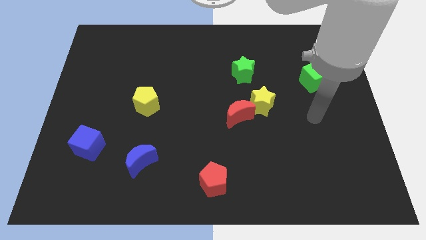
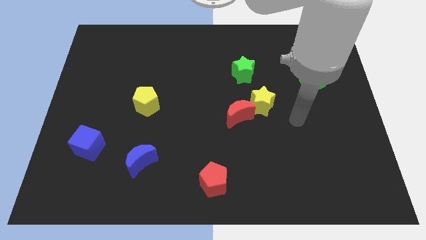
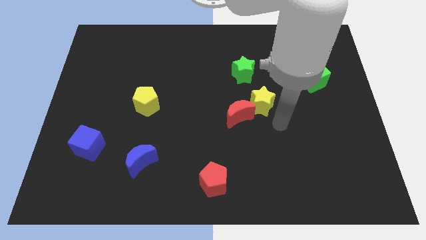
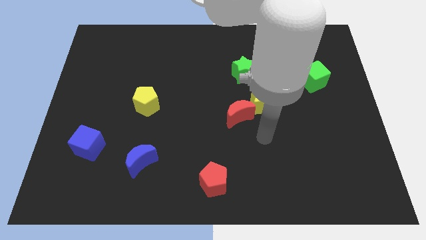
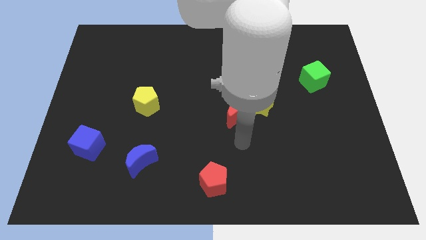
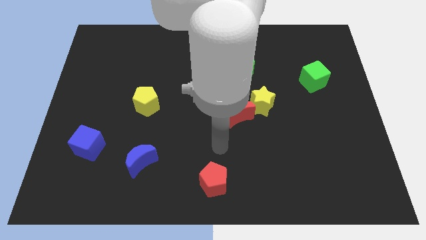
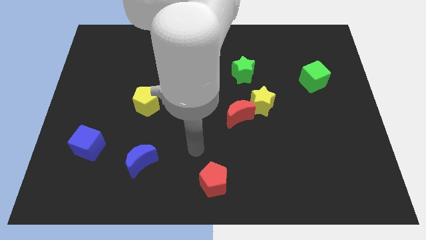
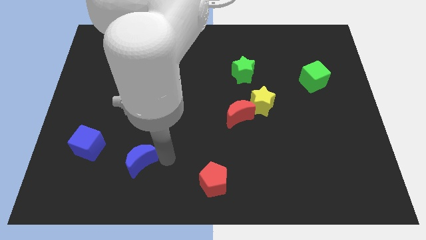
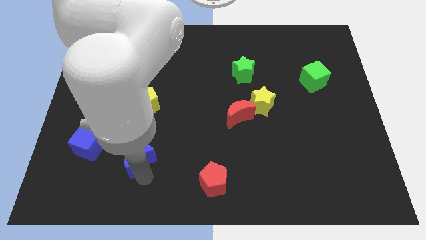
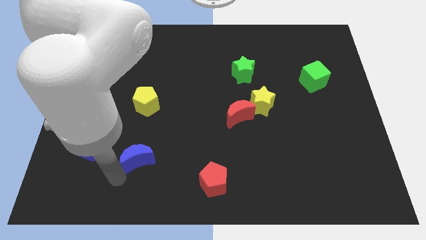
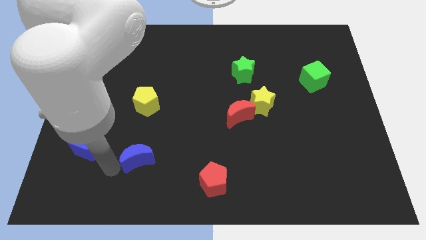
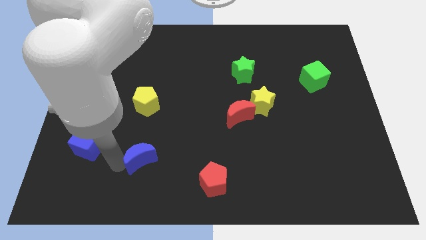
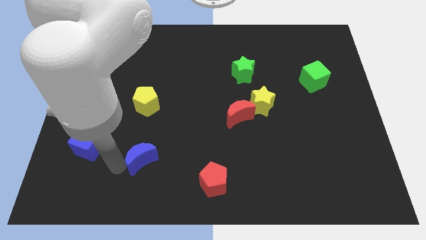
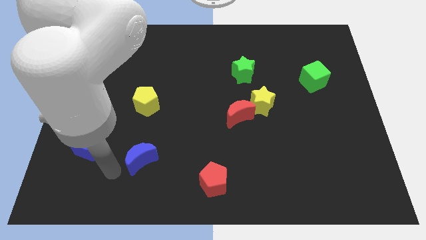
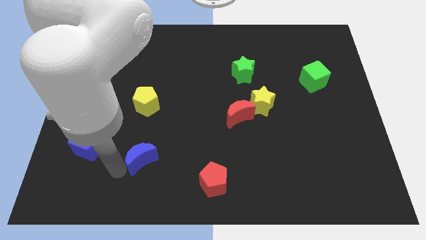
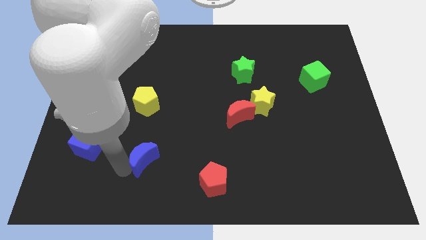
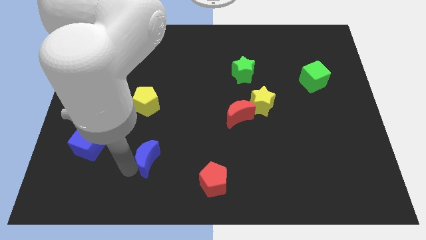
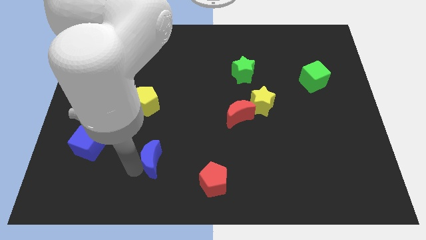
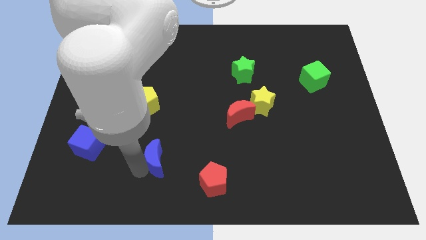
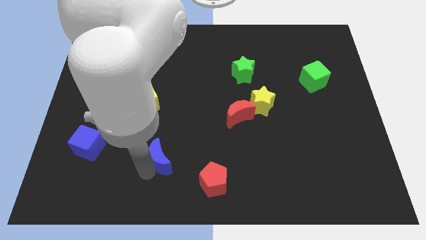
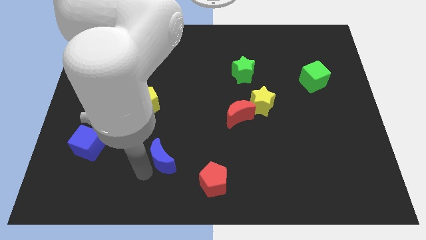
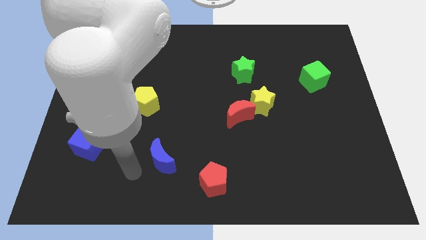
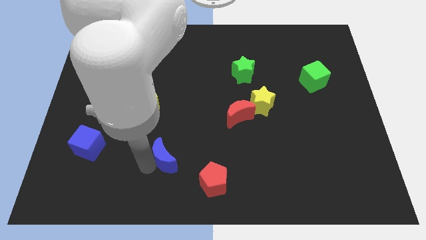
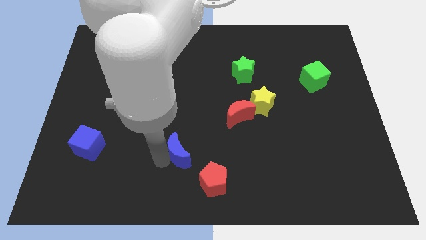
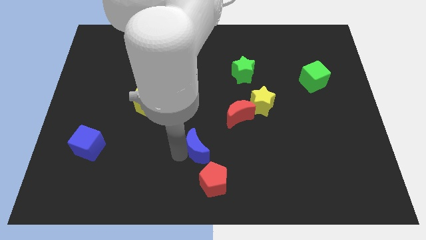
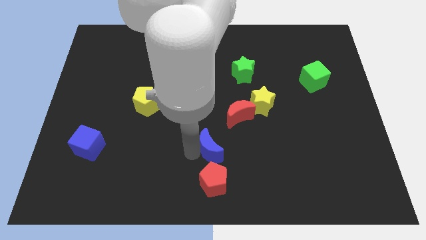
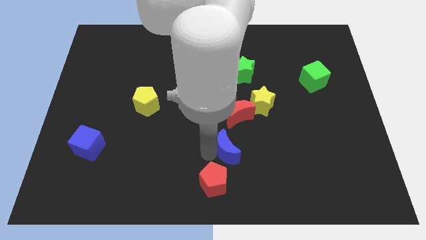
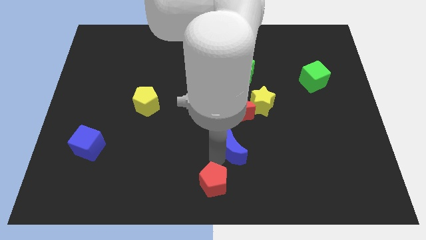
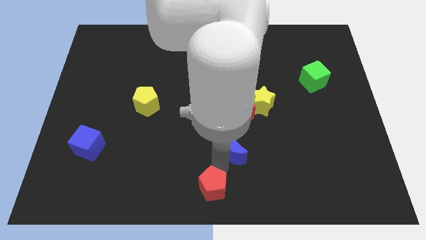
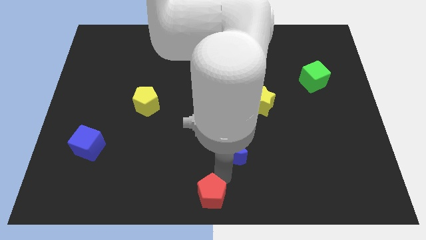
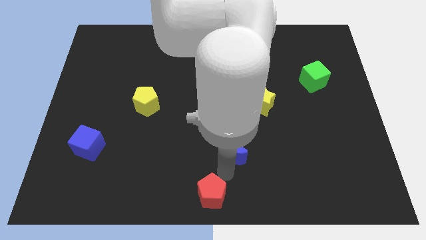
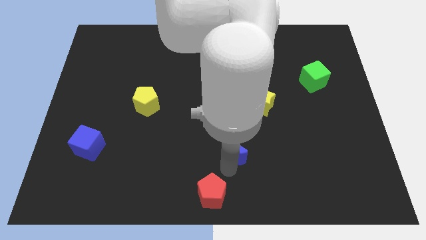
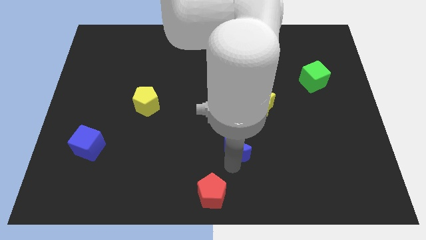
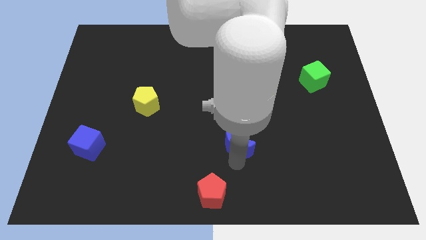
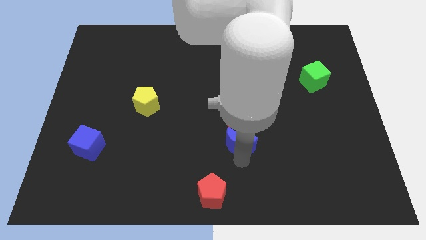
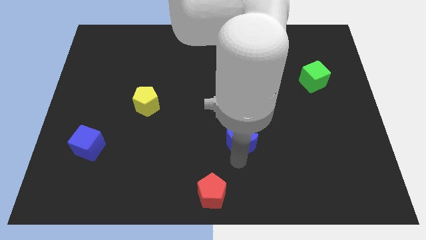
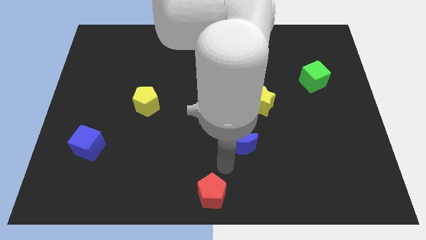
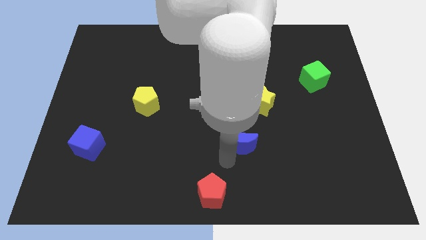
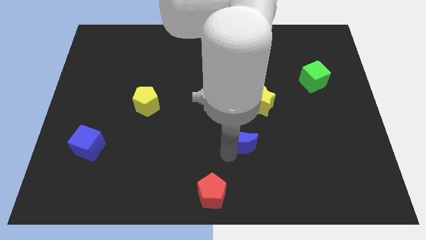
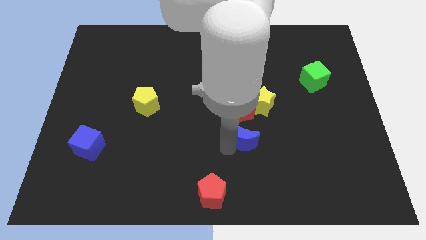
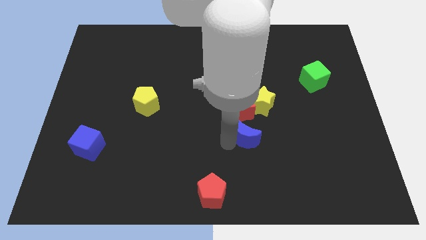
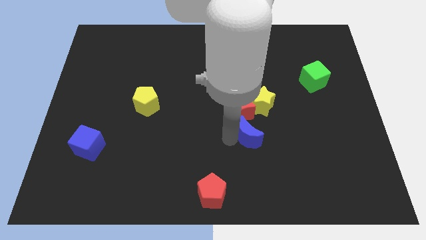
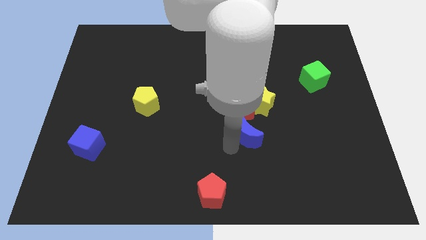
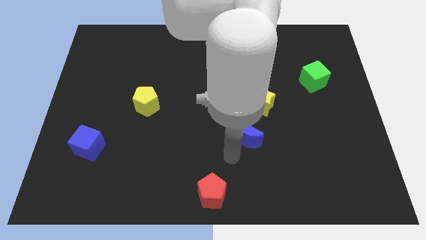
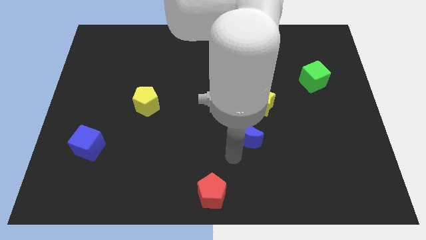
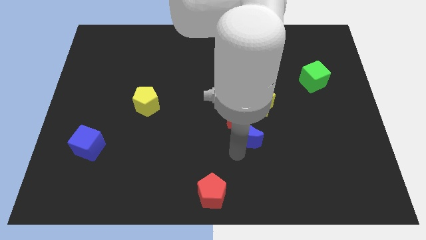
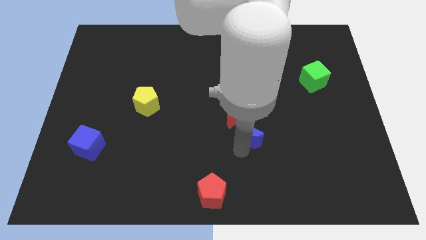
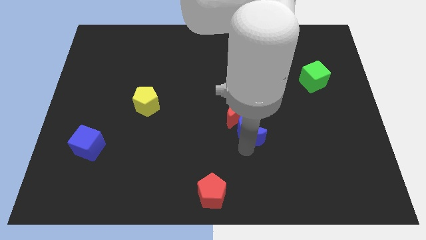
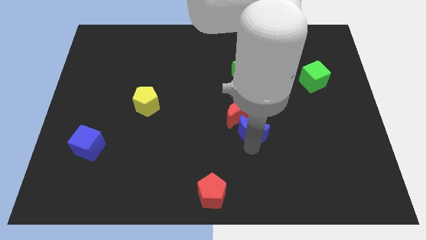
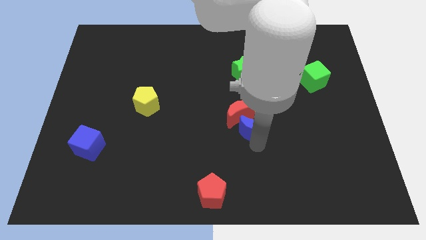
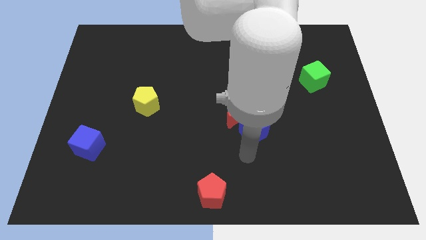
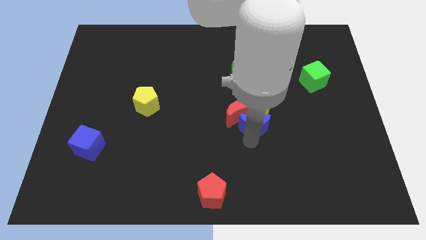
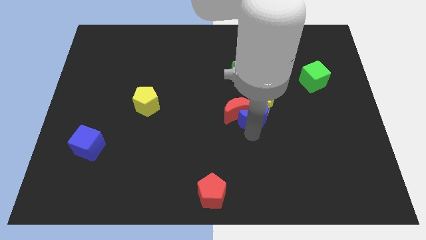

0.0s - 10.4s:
move the blue moon towards the yellow star

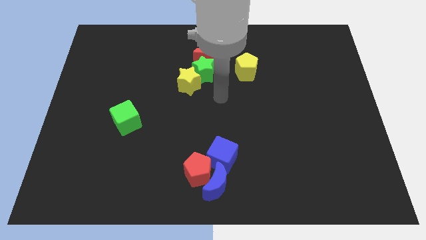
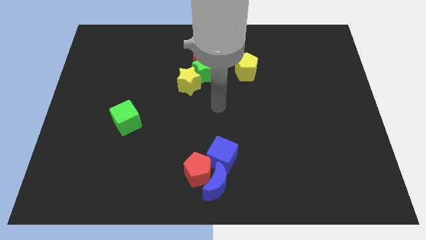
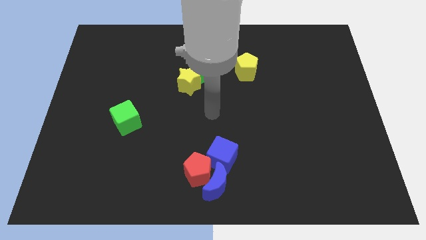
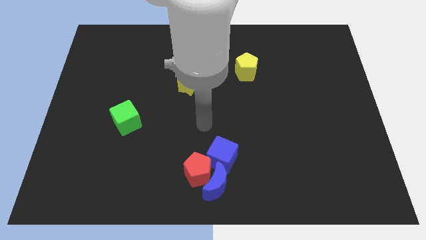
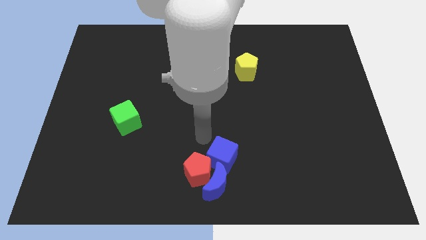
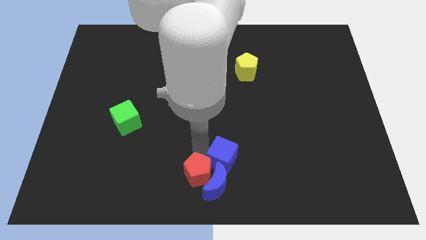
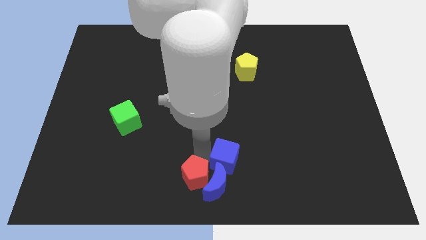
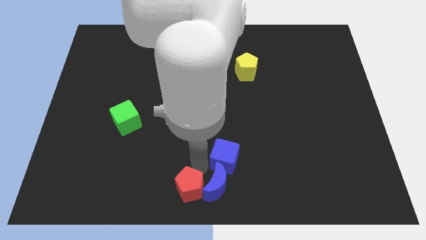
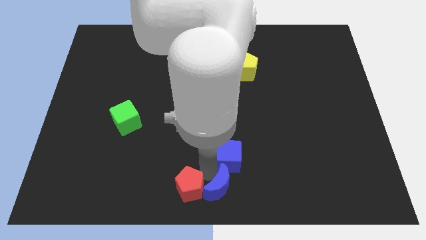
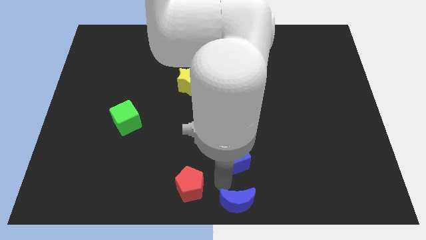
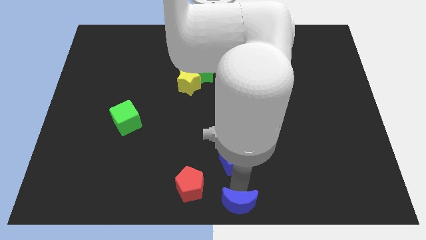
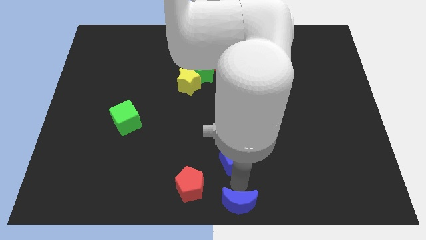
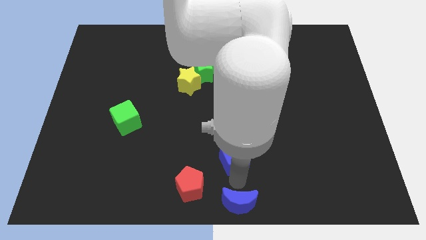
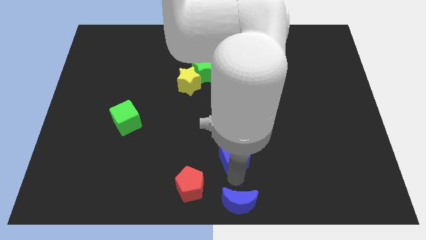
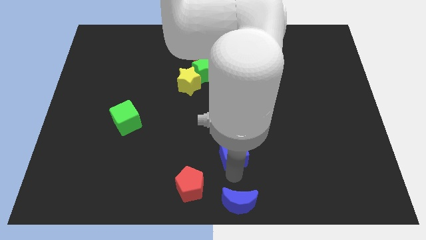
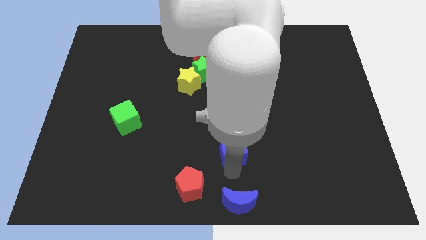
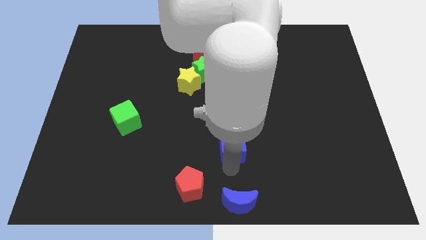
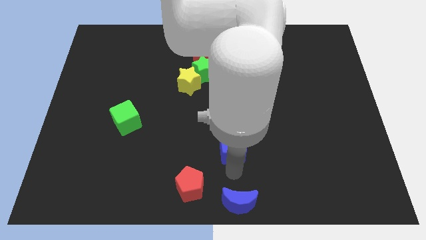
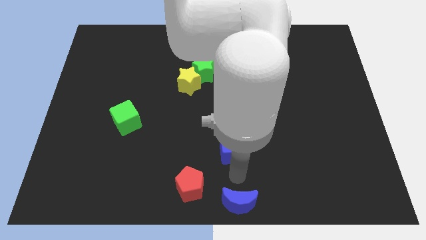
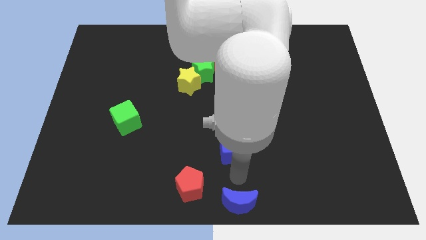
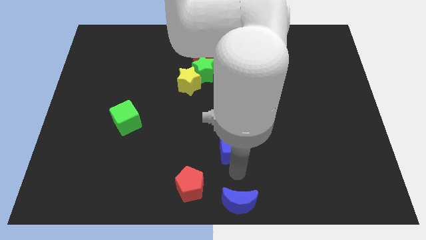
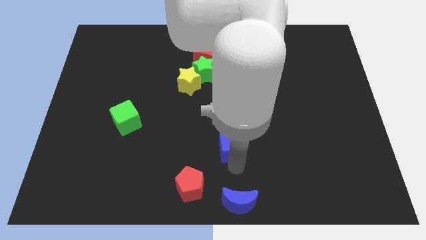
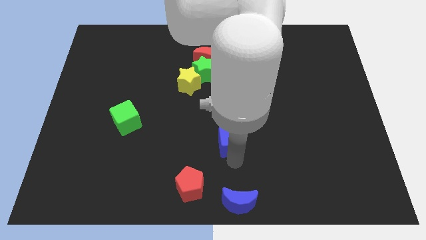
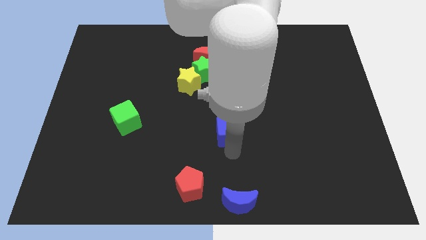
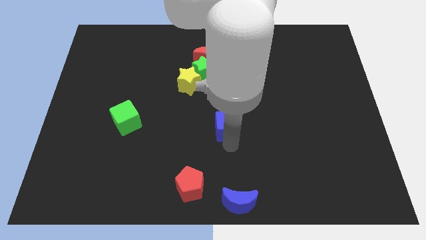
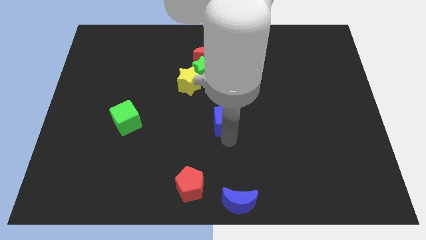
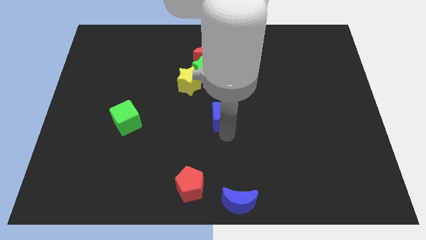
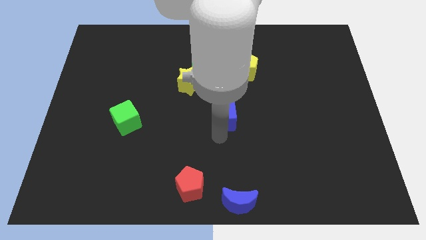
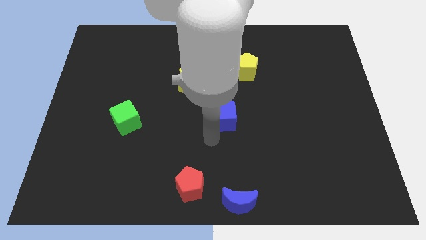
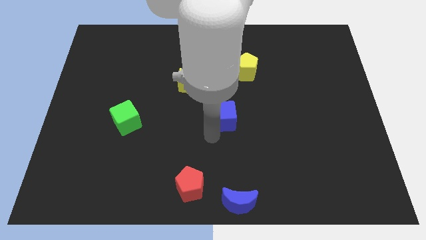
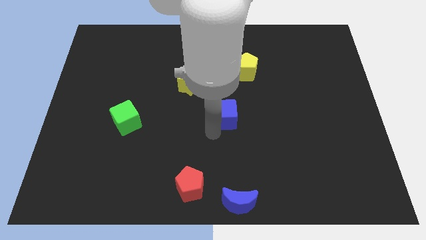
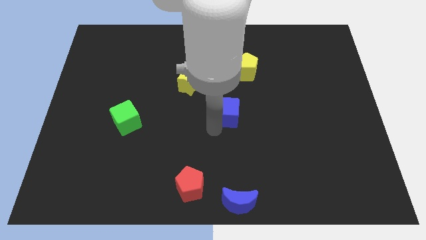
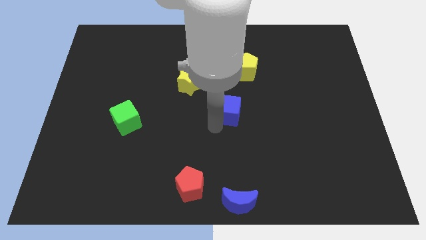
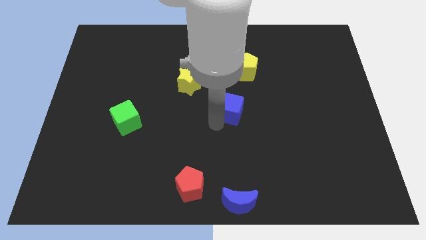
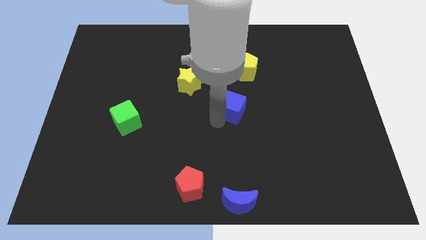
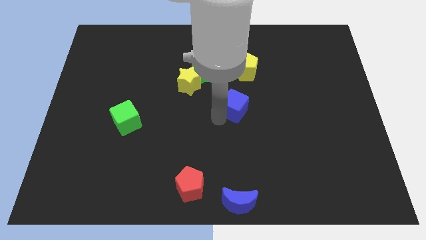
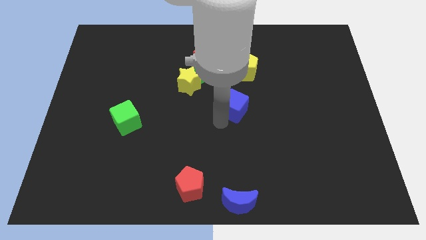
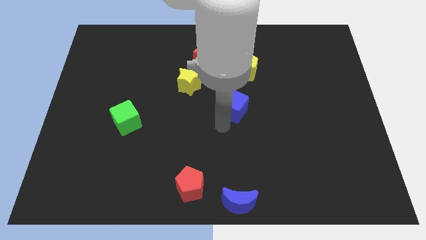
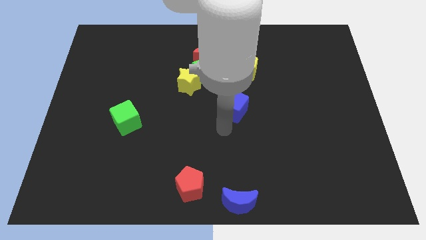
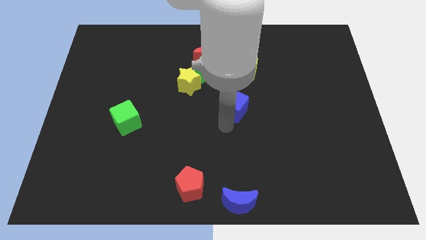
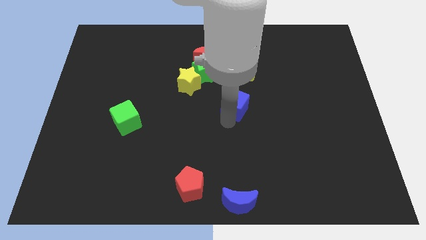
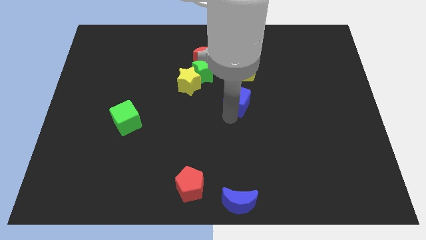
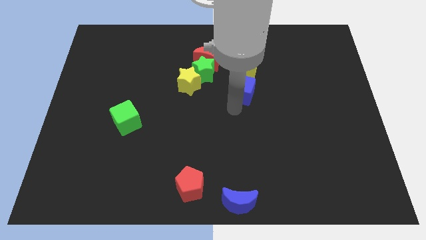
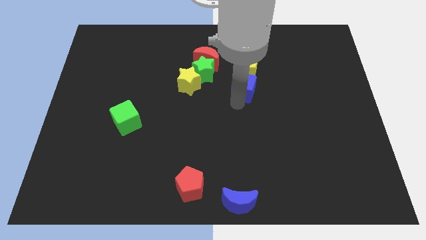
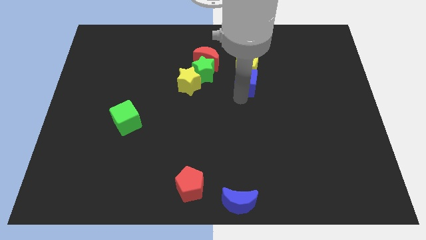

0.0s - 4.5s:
move the blue cube to the yellow pentagon
